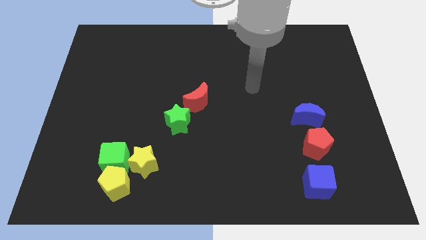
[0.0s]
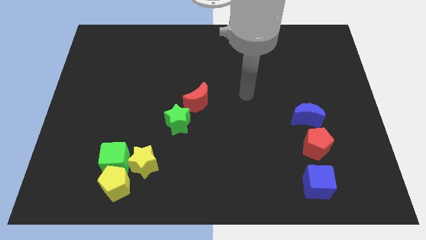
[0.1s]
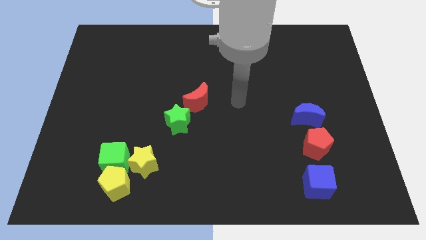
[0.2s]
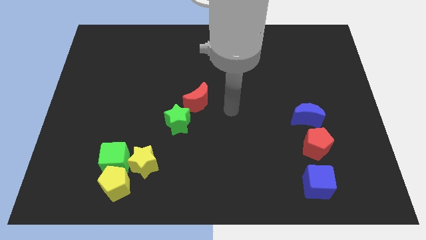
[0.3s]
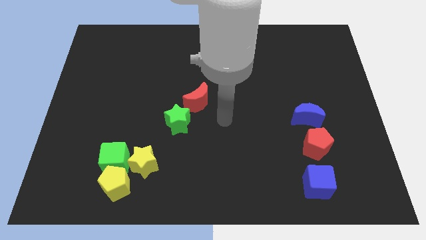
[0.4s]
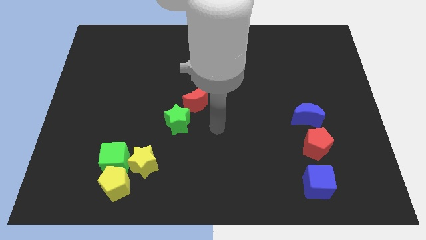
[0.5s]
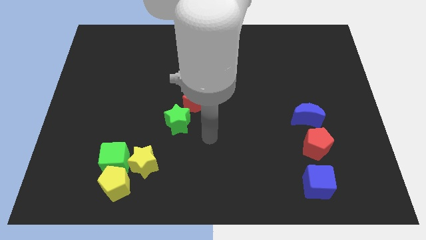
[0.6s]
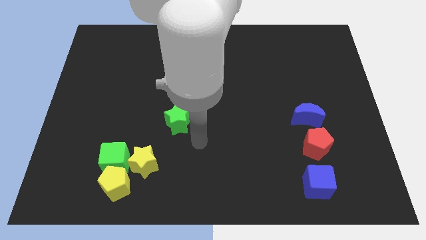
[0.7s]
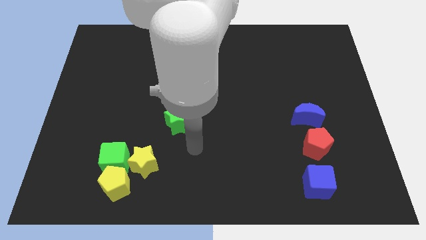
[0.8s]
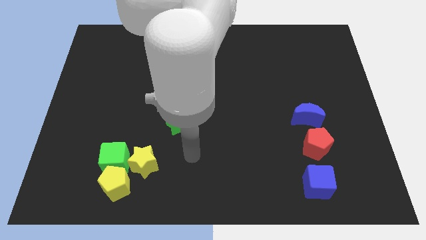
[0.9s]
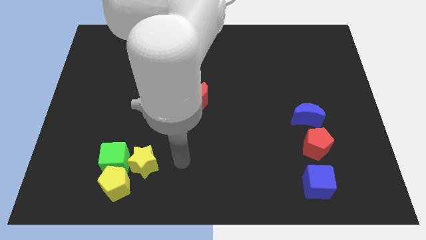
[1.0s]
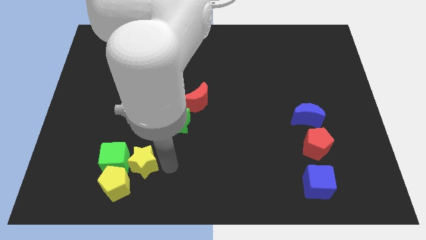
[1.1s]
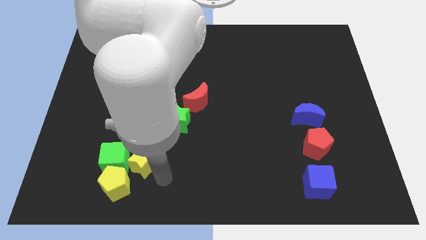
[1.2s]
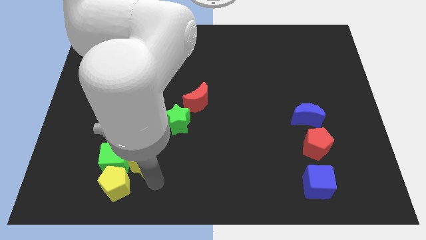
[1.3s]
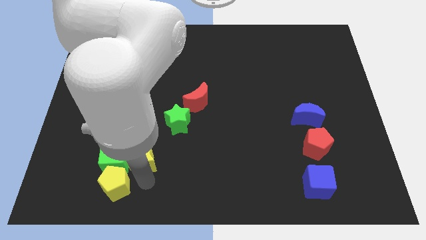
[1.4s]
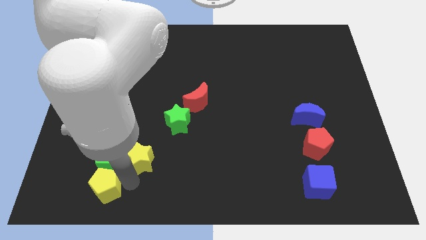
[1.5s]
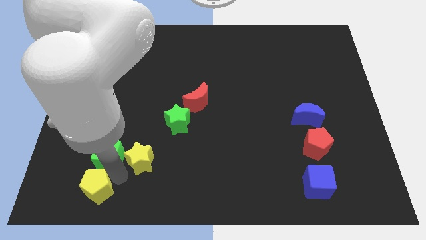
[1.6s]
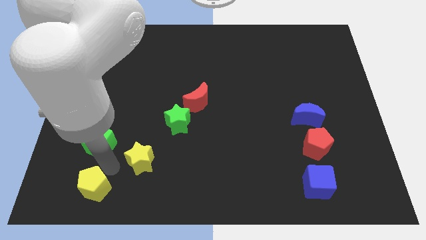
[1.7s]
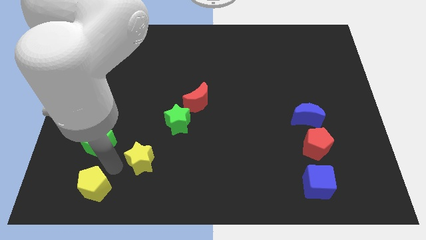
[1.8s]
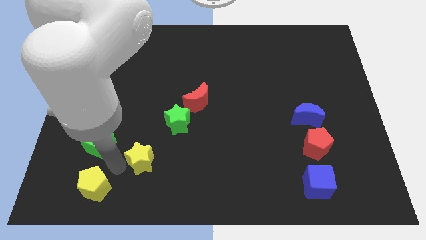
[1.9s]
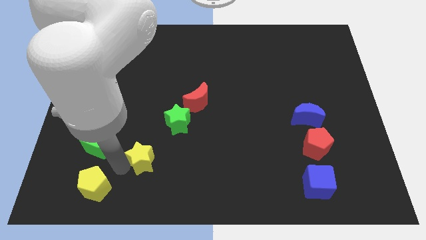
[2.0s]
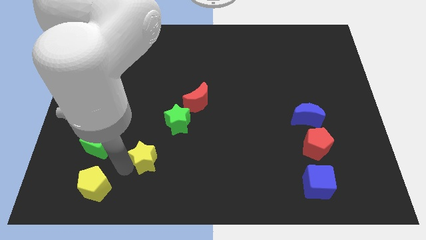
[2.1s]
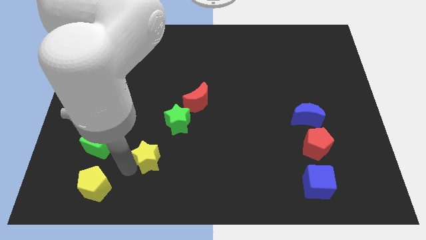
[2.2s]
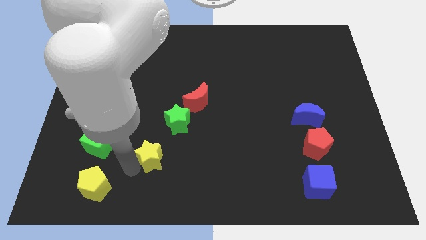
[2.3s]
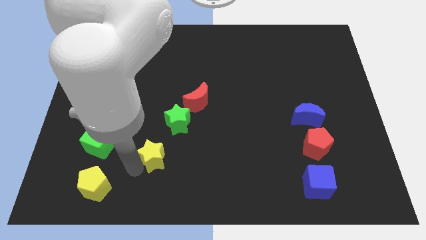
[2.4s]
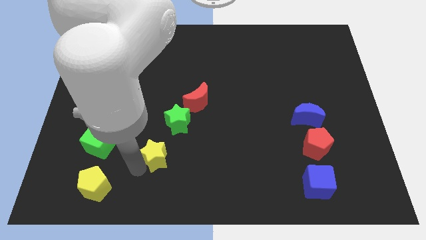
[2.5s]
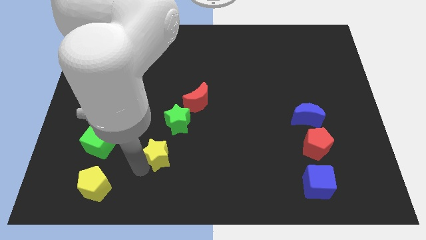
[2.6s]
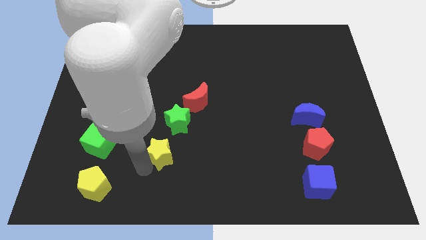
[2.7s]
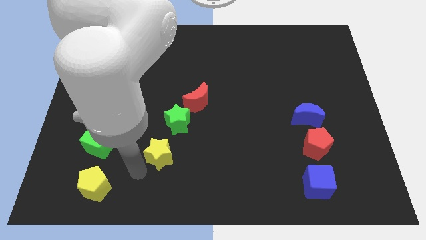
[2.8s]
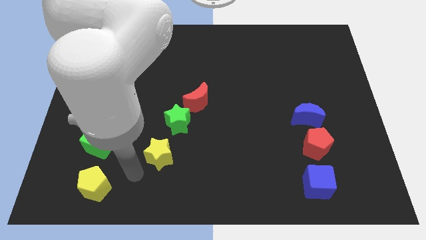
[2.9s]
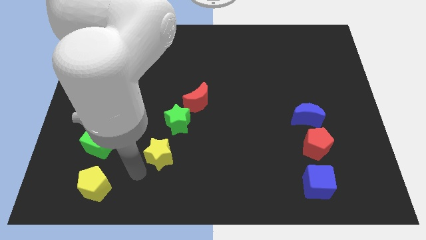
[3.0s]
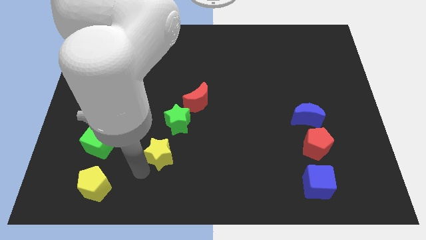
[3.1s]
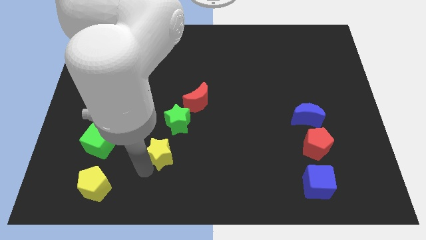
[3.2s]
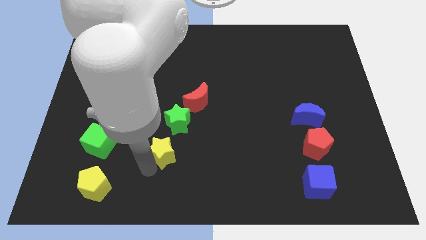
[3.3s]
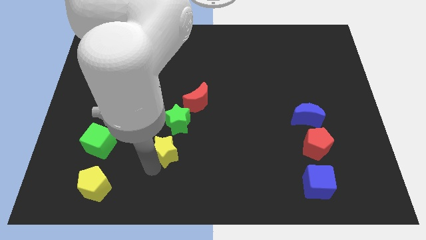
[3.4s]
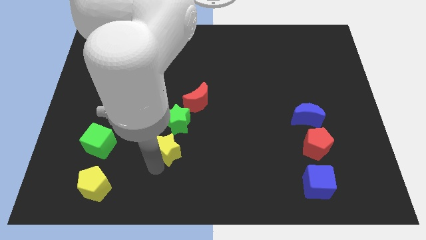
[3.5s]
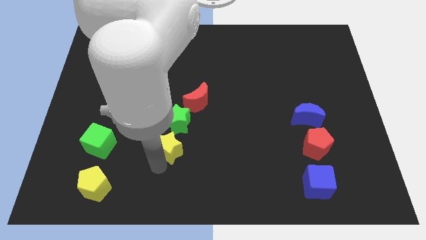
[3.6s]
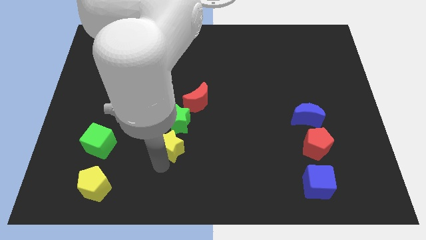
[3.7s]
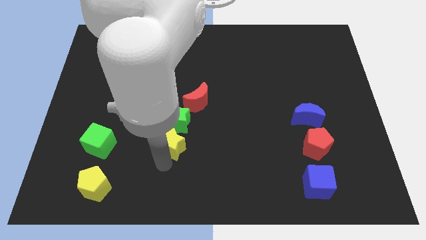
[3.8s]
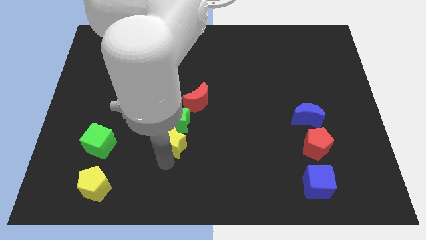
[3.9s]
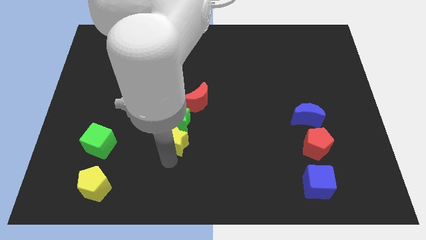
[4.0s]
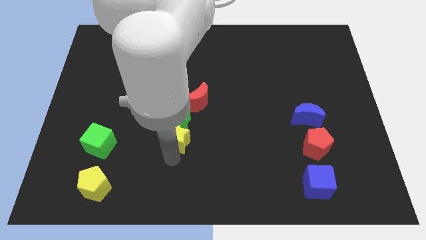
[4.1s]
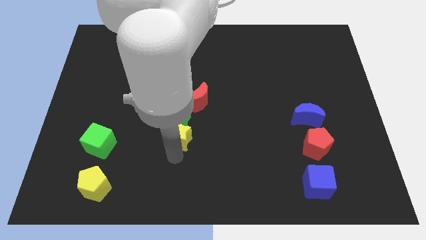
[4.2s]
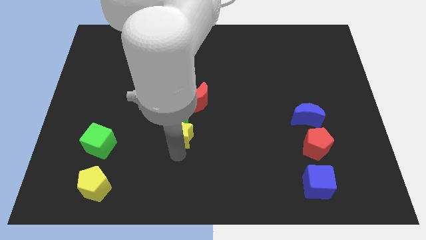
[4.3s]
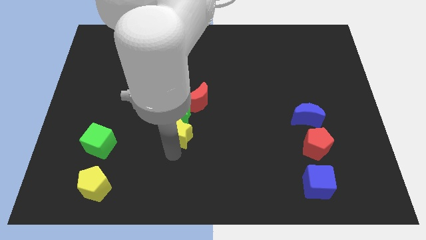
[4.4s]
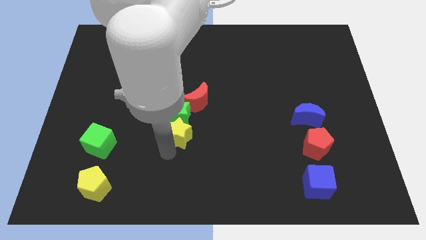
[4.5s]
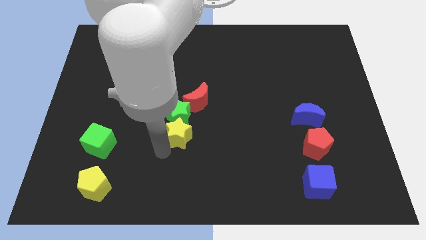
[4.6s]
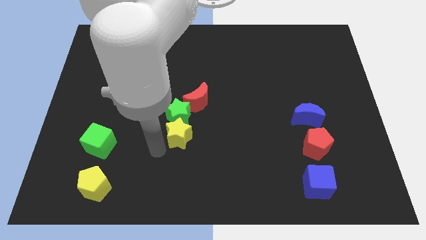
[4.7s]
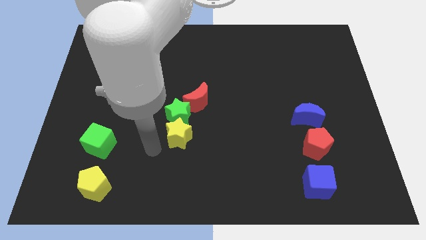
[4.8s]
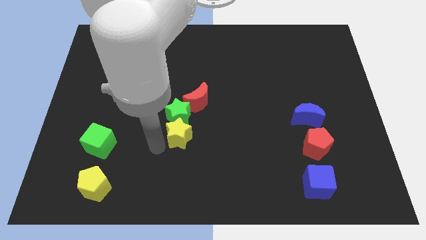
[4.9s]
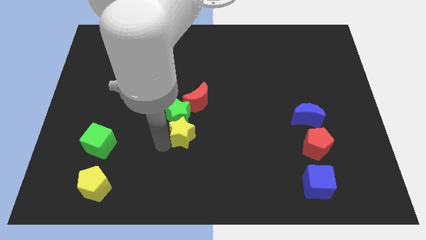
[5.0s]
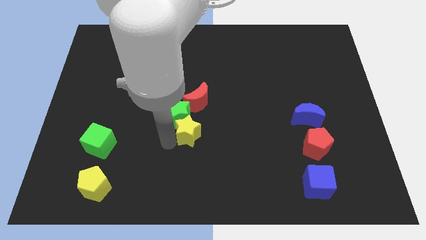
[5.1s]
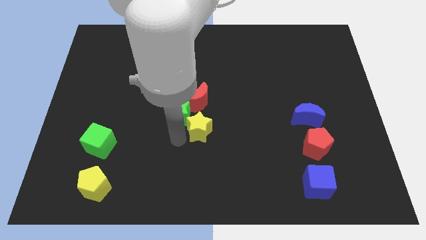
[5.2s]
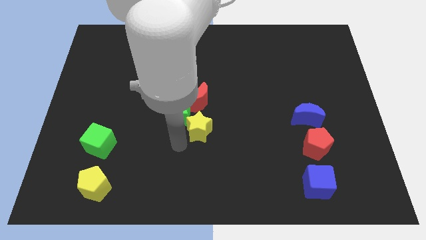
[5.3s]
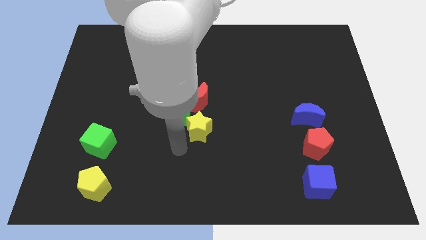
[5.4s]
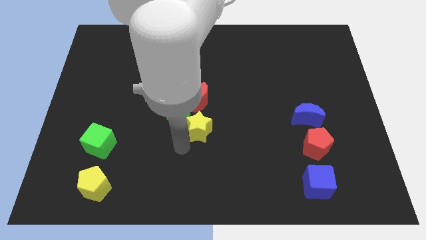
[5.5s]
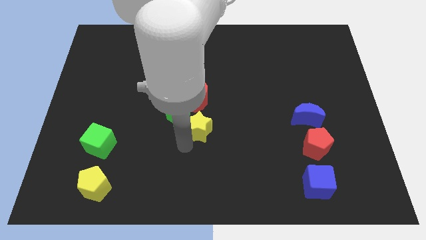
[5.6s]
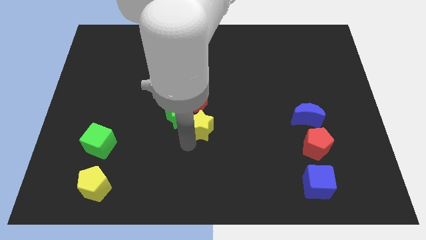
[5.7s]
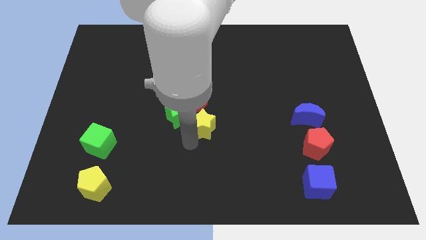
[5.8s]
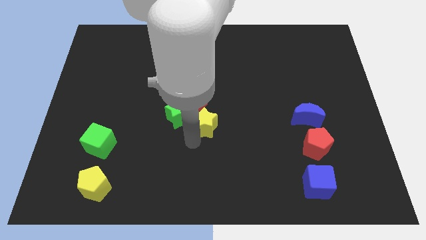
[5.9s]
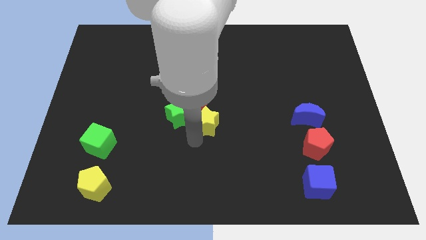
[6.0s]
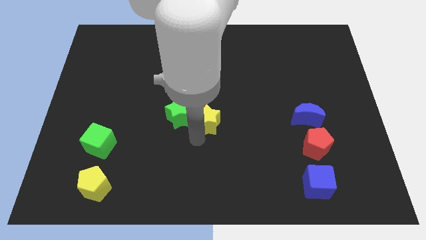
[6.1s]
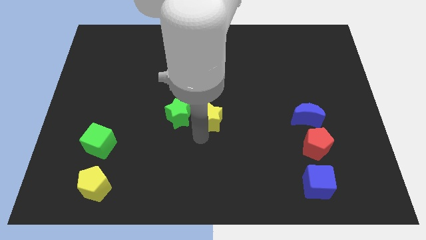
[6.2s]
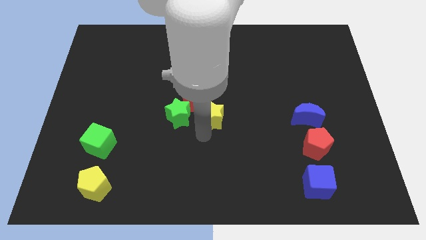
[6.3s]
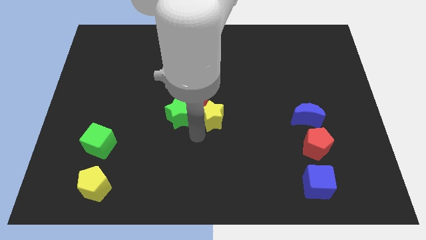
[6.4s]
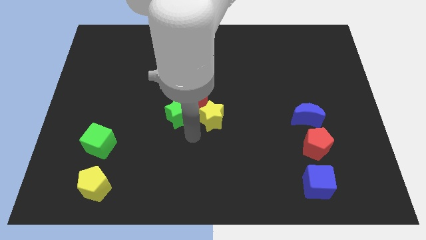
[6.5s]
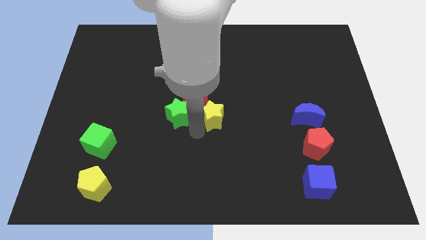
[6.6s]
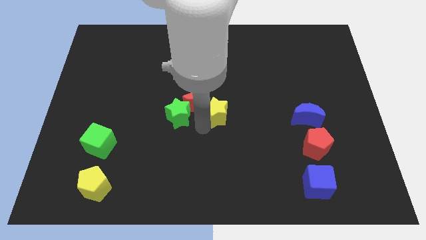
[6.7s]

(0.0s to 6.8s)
slide the yellow star up and then to the right

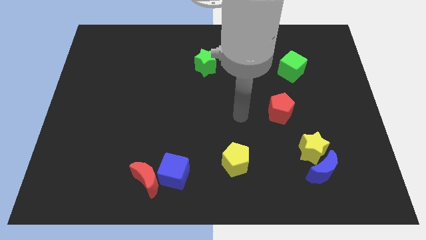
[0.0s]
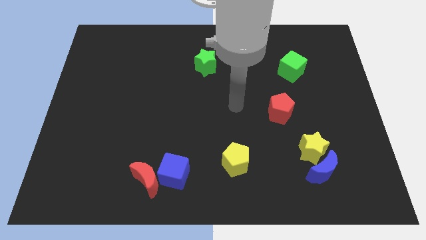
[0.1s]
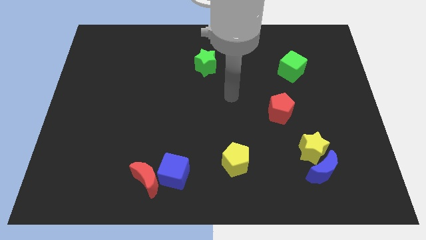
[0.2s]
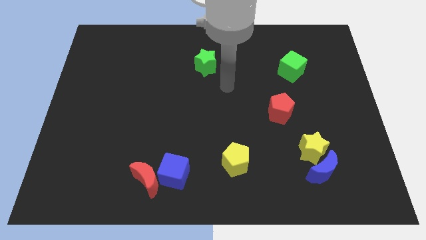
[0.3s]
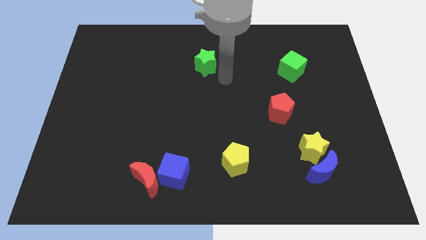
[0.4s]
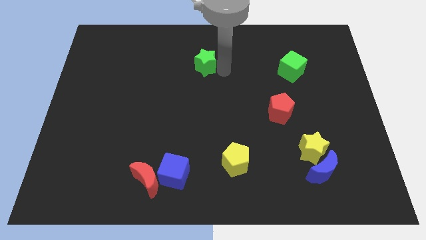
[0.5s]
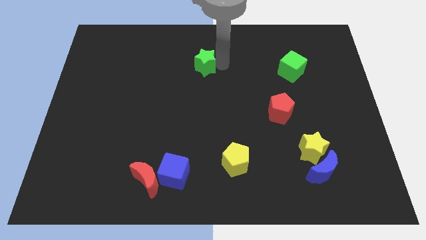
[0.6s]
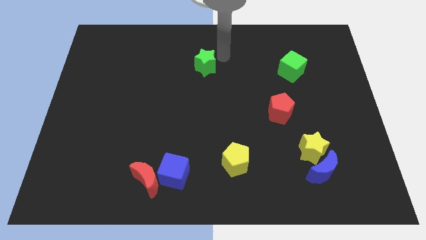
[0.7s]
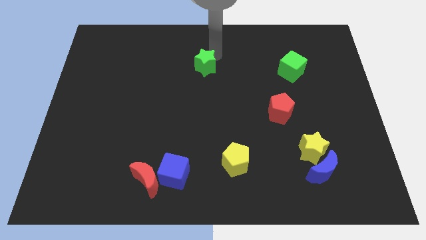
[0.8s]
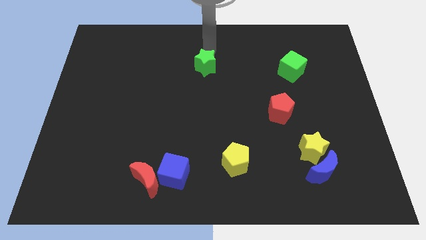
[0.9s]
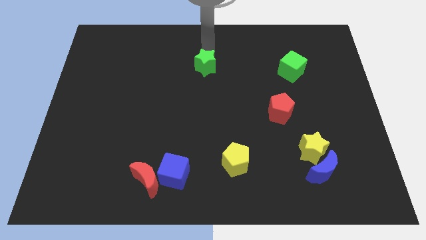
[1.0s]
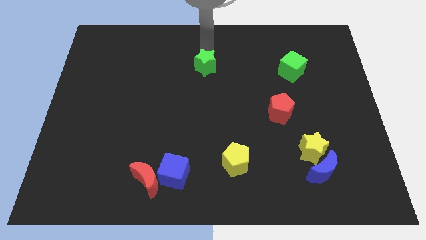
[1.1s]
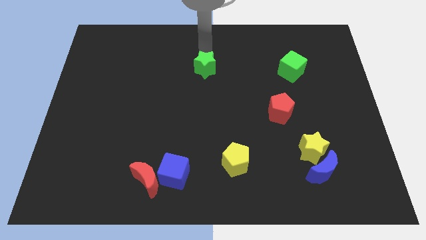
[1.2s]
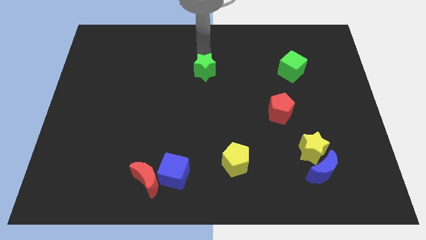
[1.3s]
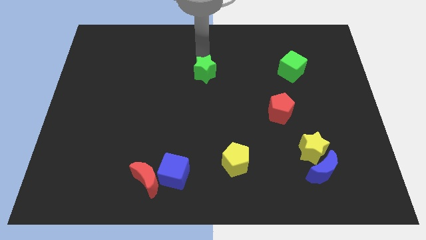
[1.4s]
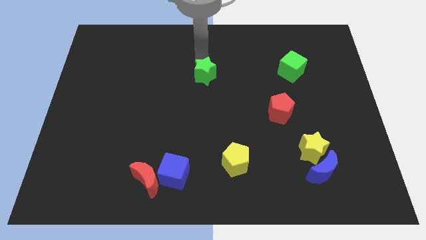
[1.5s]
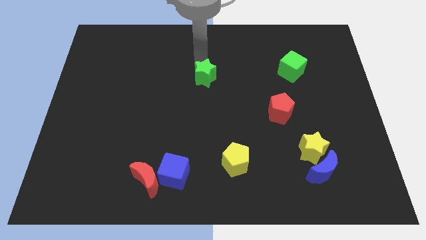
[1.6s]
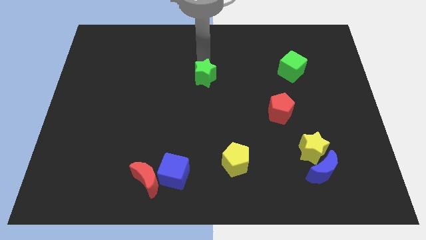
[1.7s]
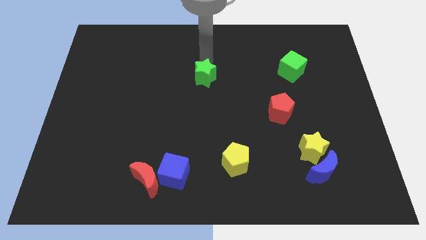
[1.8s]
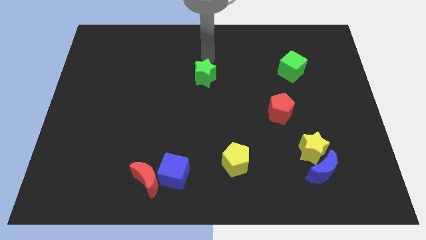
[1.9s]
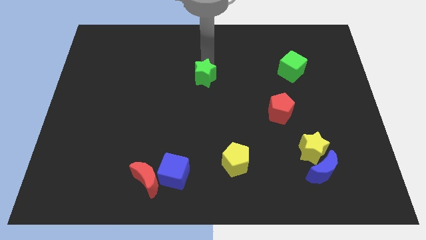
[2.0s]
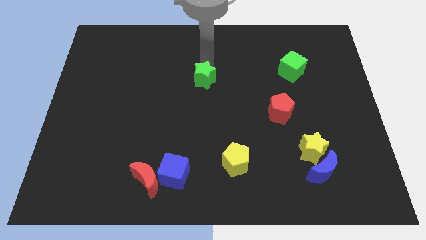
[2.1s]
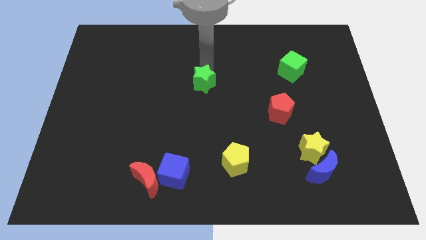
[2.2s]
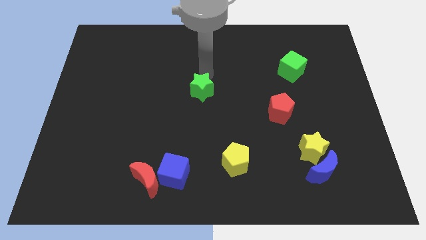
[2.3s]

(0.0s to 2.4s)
slide the green star a little bit down
